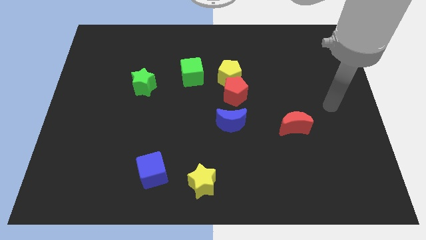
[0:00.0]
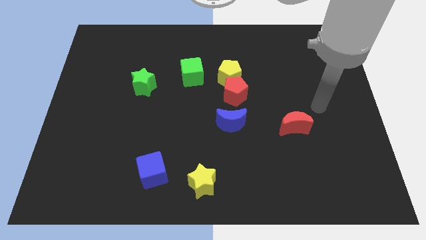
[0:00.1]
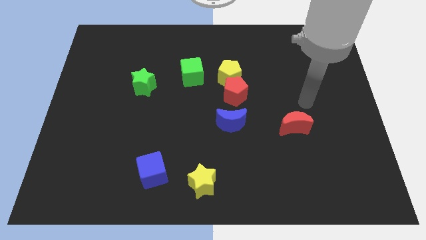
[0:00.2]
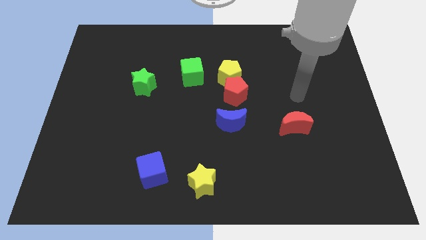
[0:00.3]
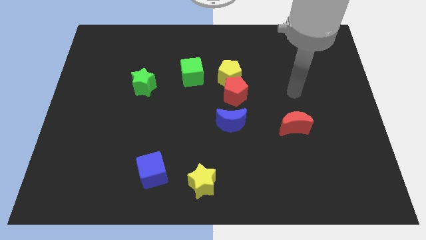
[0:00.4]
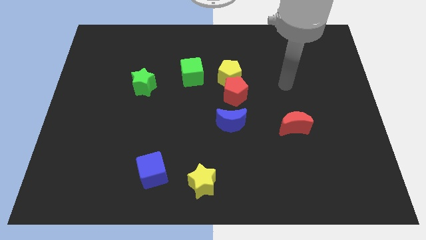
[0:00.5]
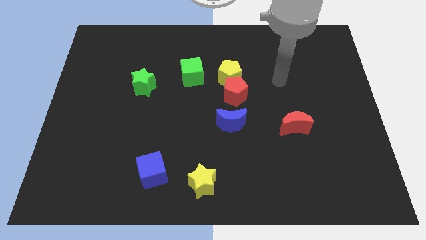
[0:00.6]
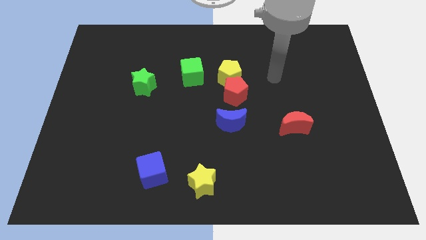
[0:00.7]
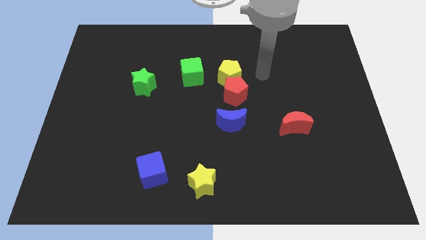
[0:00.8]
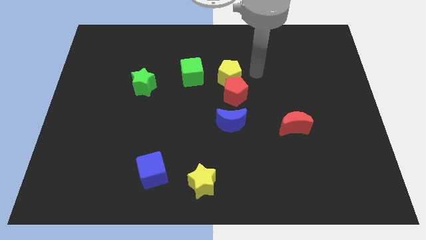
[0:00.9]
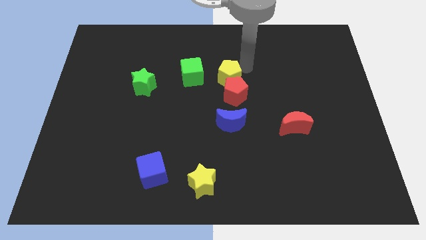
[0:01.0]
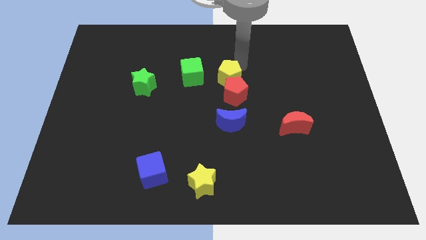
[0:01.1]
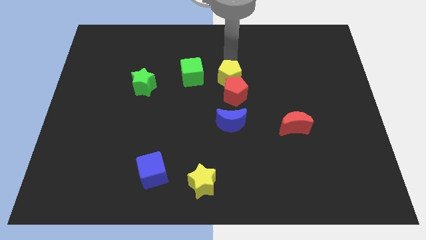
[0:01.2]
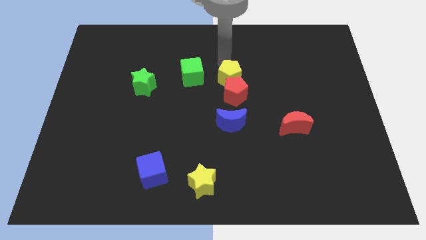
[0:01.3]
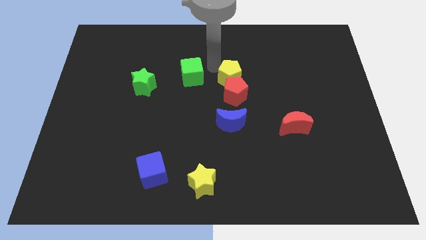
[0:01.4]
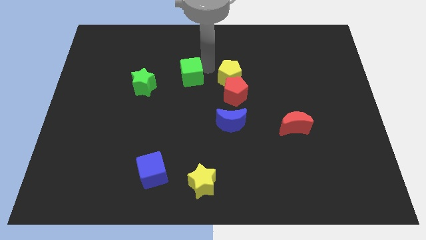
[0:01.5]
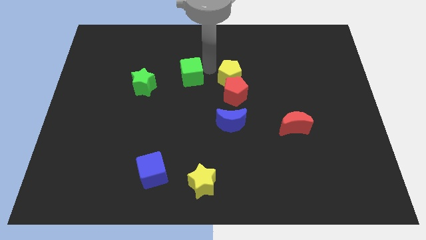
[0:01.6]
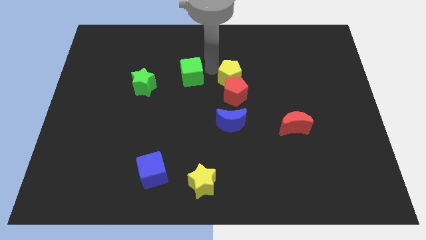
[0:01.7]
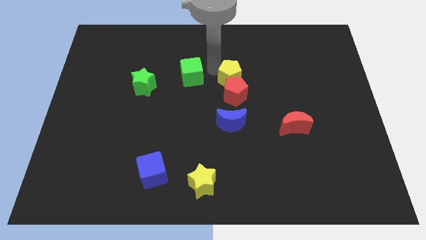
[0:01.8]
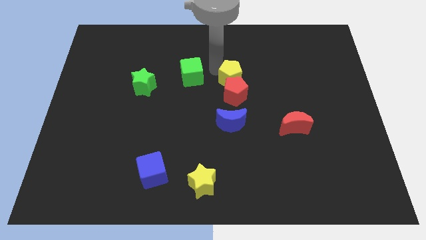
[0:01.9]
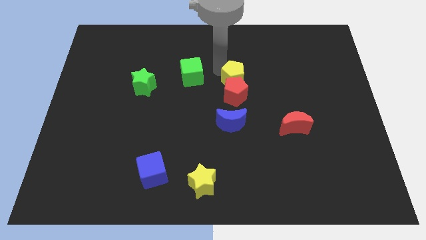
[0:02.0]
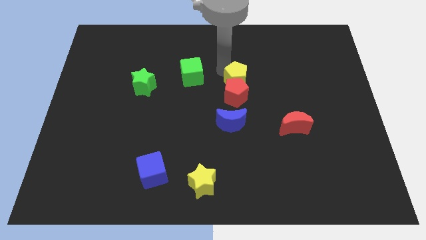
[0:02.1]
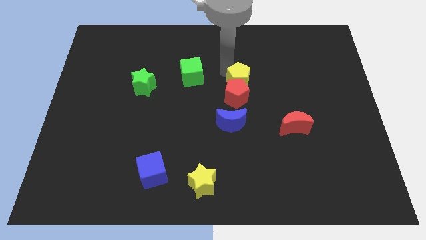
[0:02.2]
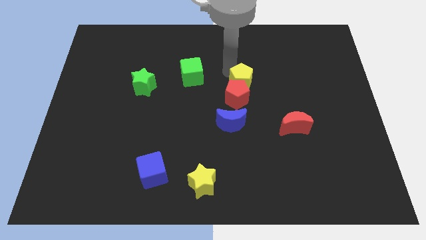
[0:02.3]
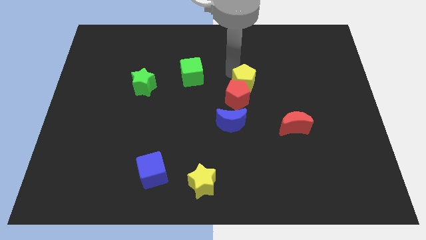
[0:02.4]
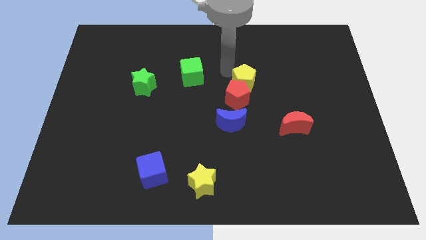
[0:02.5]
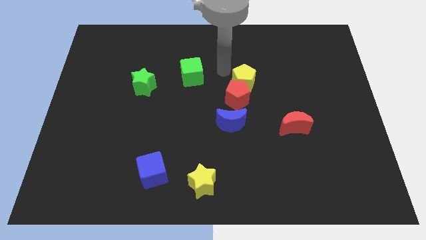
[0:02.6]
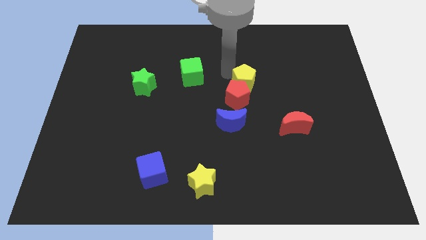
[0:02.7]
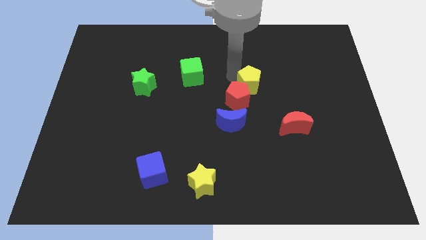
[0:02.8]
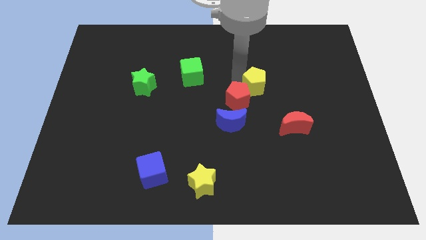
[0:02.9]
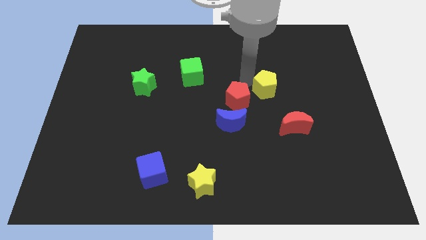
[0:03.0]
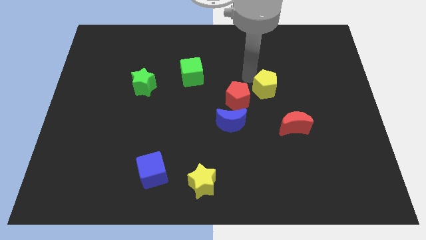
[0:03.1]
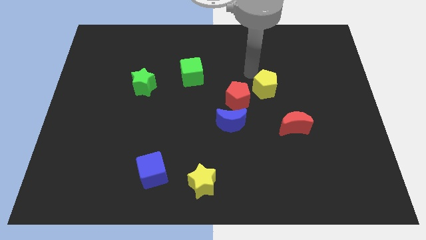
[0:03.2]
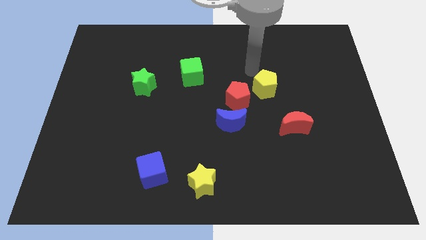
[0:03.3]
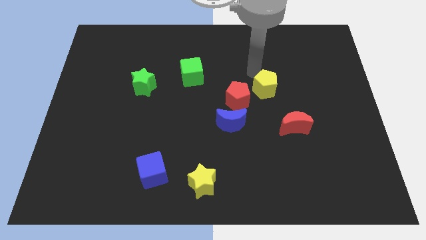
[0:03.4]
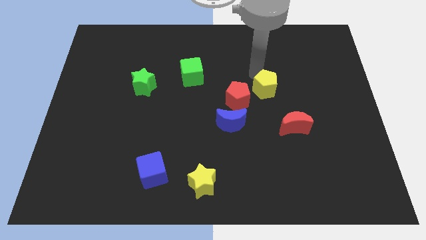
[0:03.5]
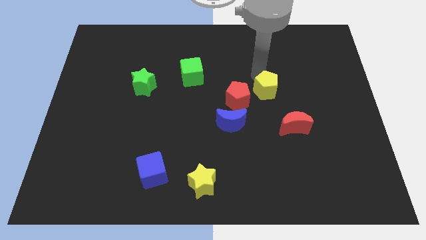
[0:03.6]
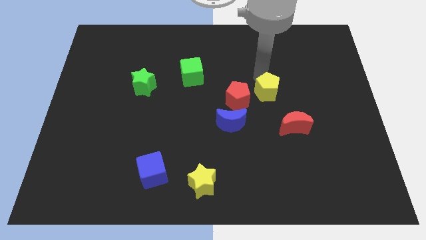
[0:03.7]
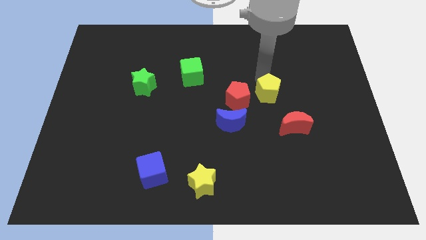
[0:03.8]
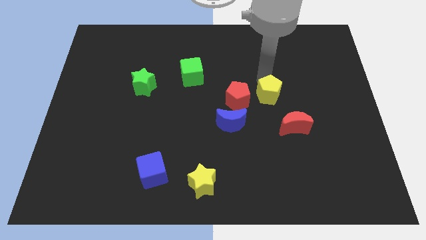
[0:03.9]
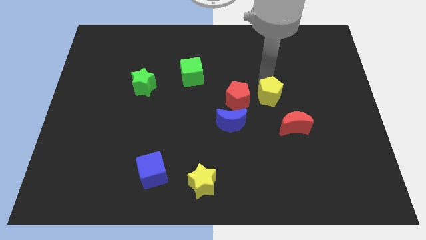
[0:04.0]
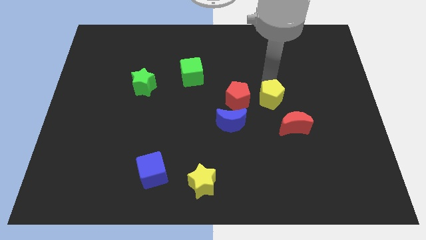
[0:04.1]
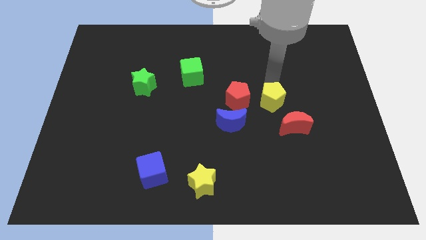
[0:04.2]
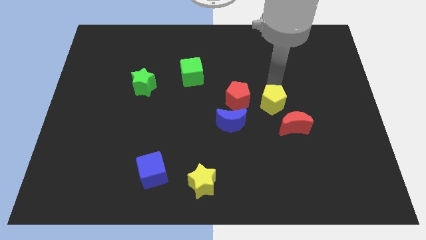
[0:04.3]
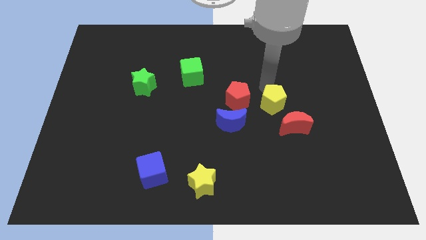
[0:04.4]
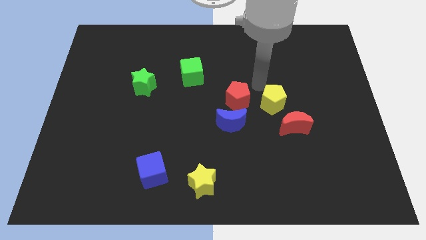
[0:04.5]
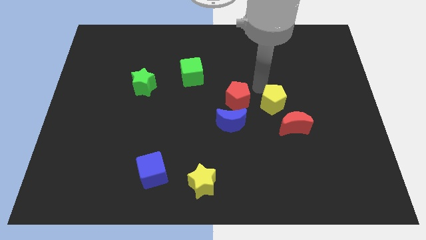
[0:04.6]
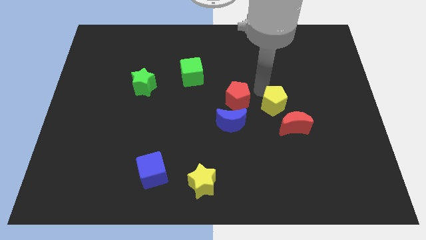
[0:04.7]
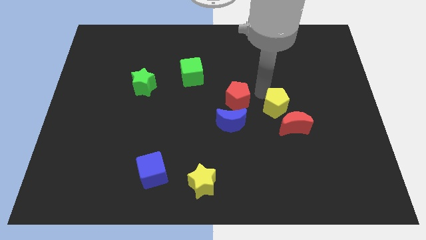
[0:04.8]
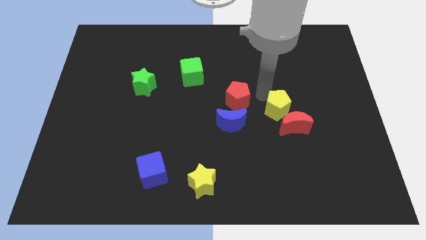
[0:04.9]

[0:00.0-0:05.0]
move the yellow pentagon to the red moon

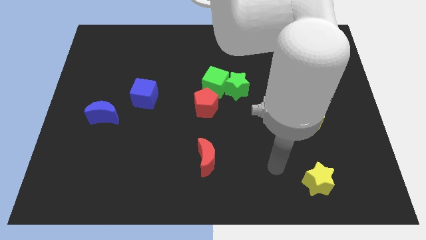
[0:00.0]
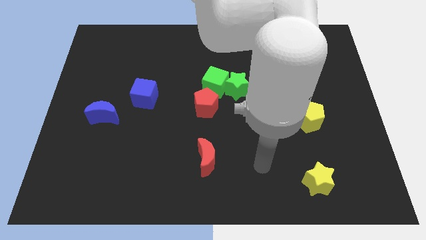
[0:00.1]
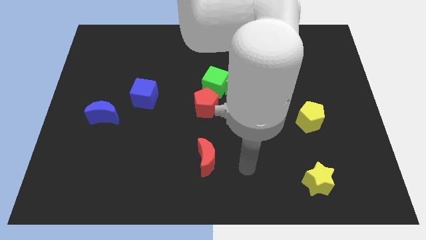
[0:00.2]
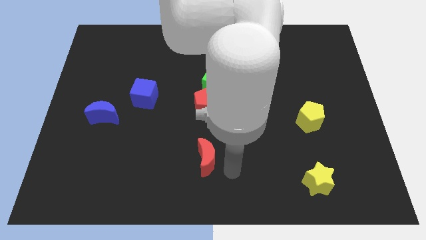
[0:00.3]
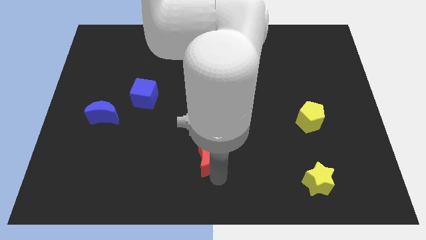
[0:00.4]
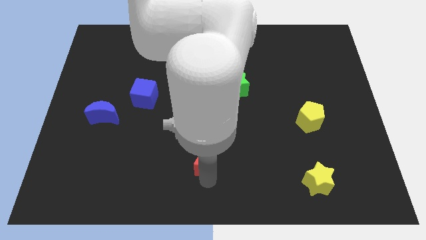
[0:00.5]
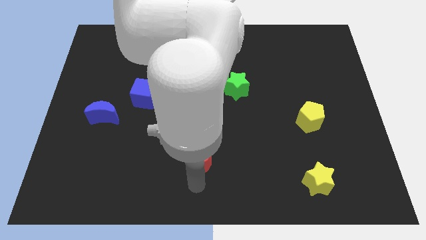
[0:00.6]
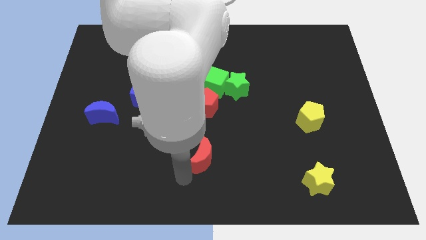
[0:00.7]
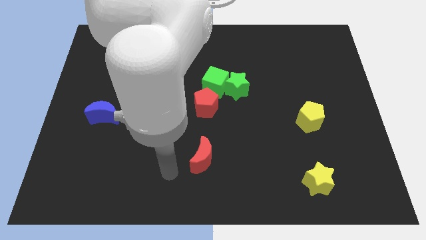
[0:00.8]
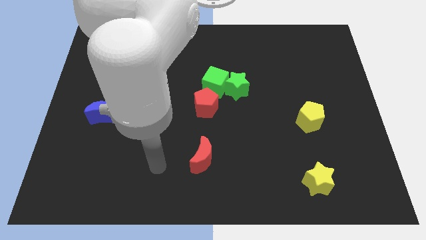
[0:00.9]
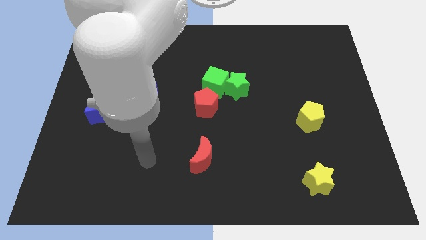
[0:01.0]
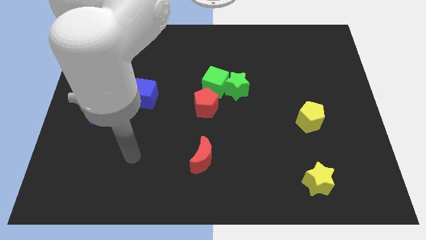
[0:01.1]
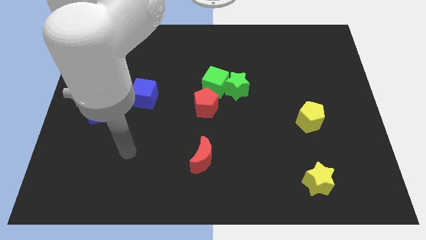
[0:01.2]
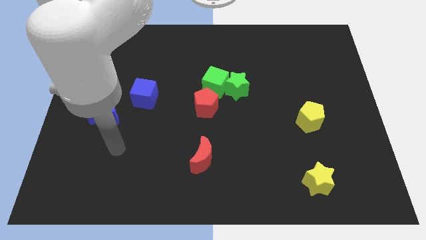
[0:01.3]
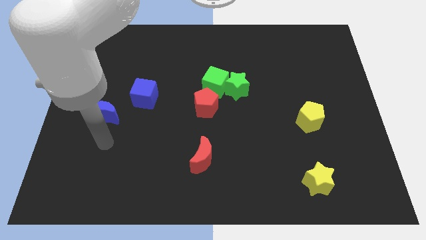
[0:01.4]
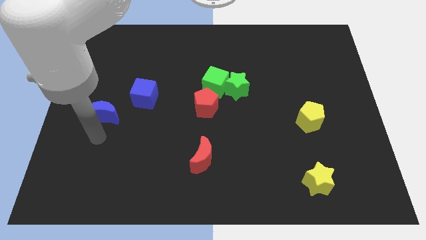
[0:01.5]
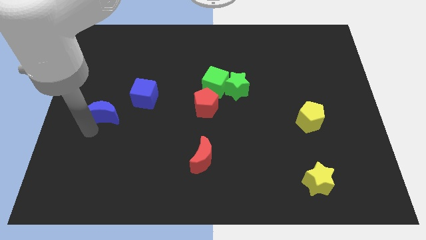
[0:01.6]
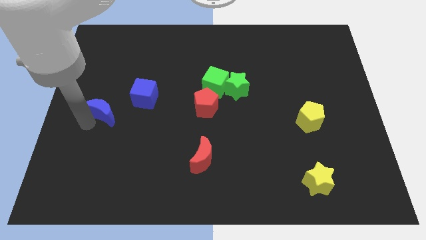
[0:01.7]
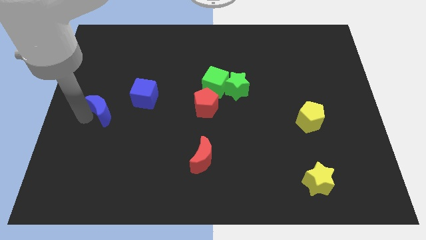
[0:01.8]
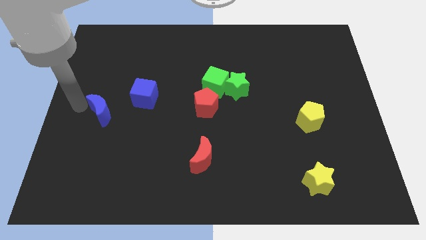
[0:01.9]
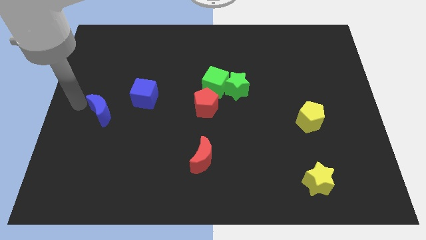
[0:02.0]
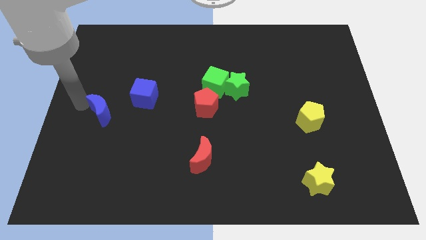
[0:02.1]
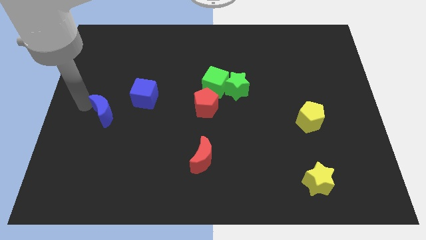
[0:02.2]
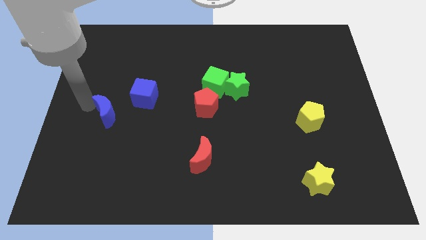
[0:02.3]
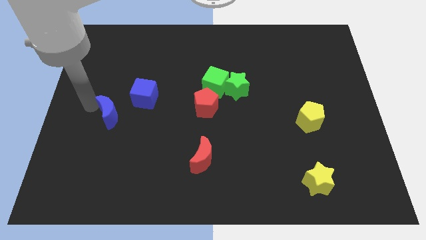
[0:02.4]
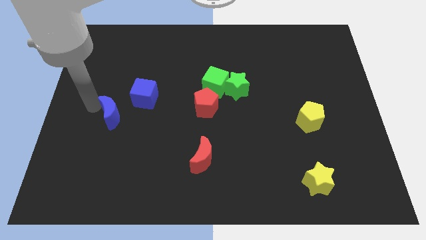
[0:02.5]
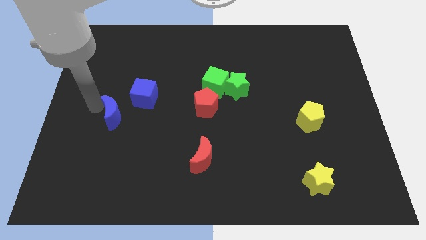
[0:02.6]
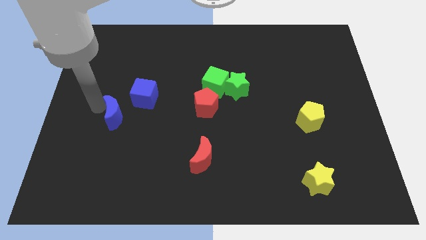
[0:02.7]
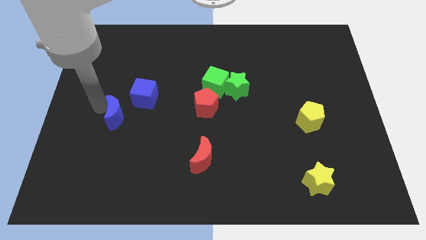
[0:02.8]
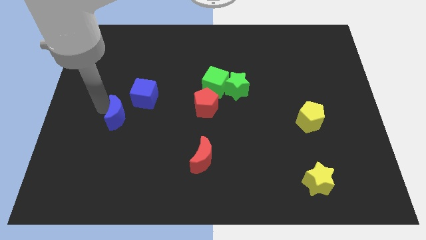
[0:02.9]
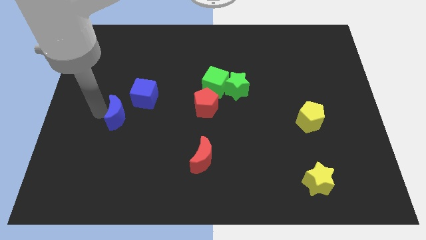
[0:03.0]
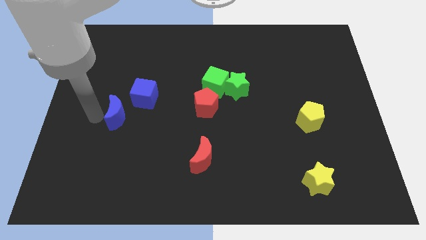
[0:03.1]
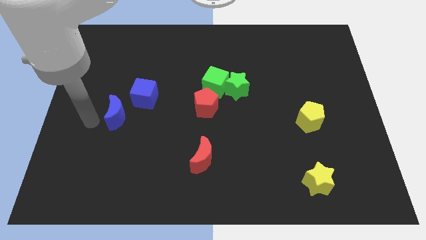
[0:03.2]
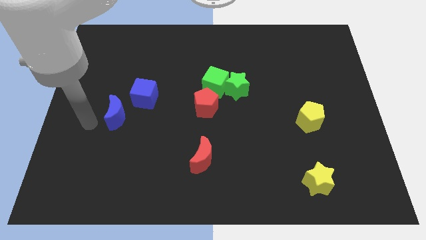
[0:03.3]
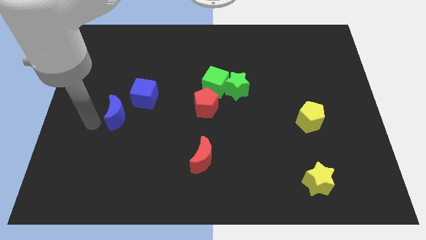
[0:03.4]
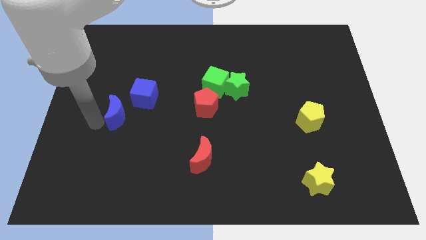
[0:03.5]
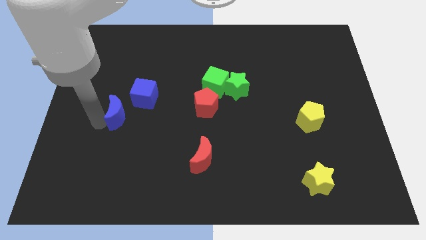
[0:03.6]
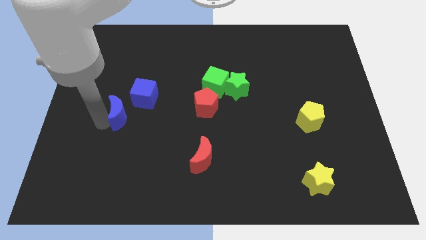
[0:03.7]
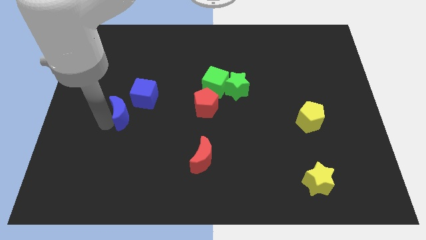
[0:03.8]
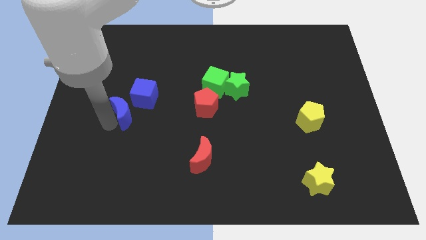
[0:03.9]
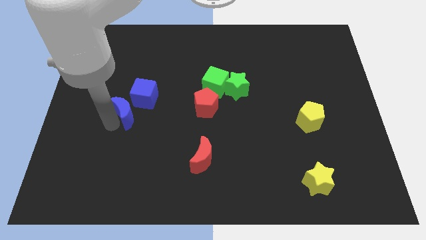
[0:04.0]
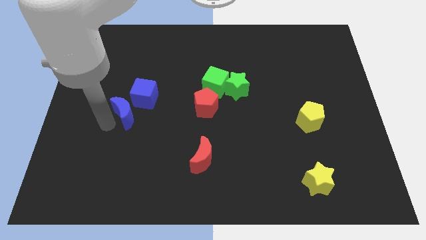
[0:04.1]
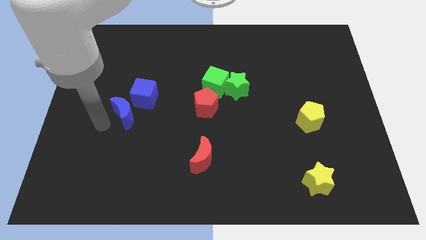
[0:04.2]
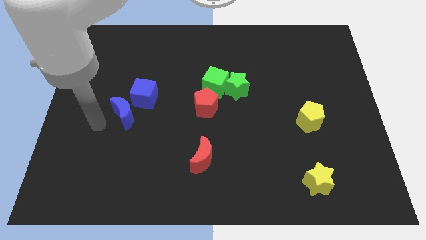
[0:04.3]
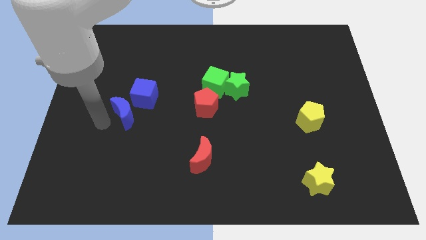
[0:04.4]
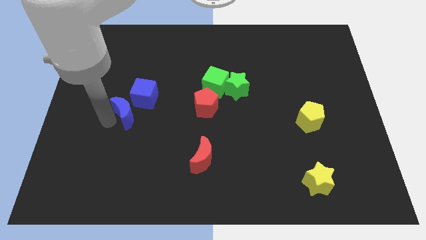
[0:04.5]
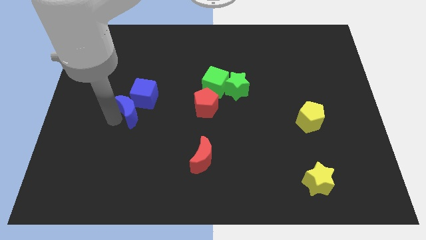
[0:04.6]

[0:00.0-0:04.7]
push the blue moon next to the blue cube
